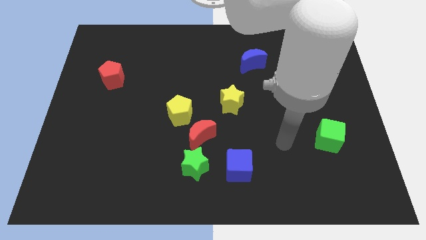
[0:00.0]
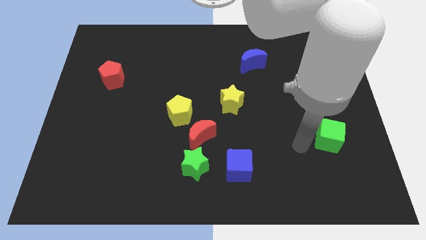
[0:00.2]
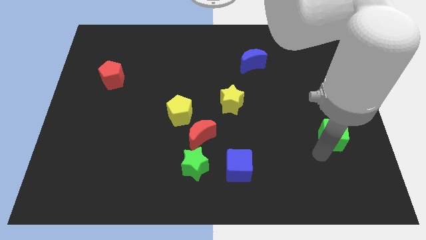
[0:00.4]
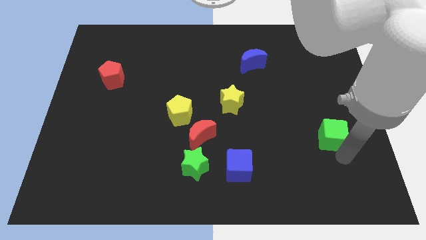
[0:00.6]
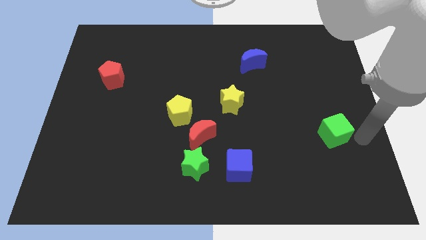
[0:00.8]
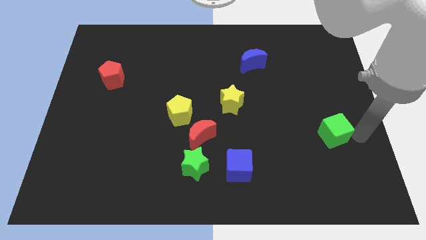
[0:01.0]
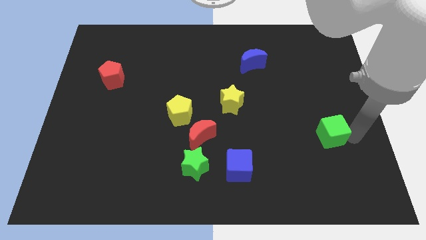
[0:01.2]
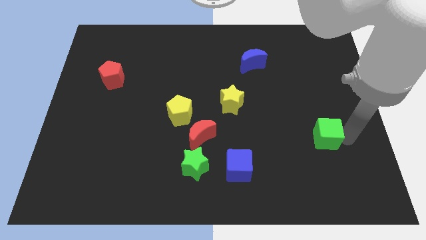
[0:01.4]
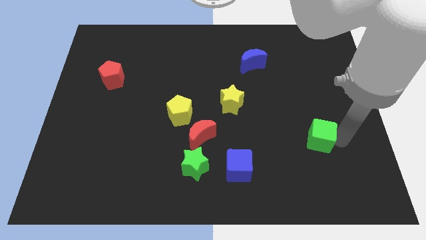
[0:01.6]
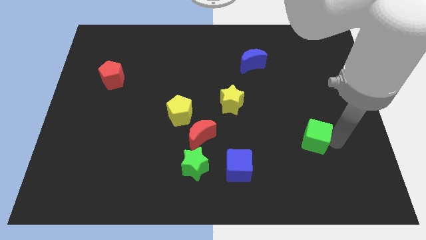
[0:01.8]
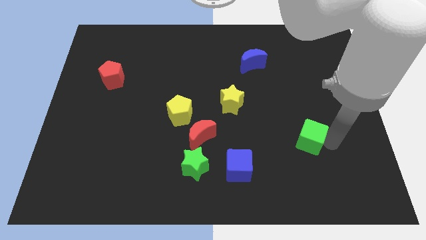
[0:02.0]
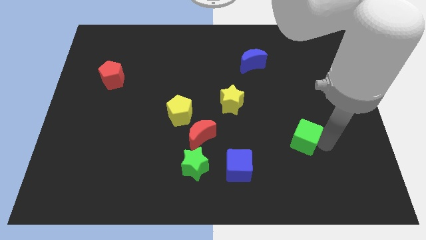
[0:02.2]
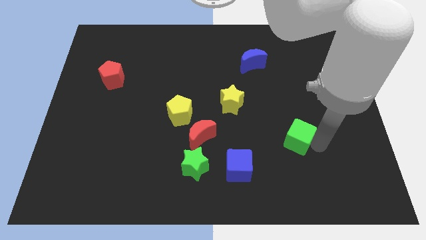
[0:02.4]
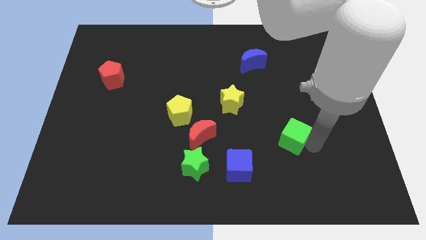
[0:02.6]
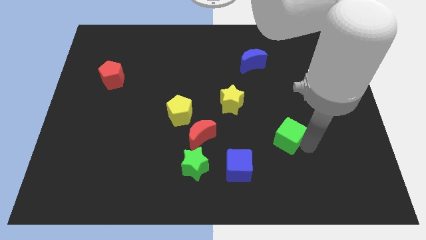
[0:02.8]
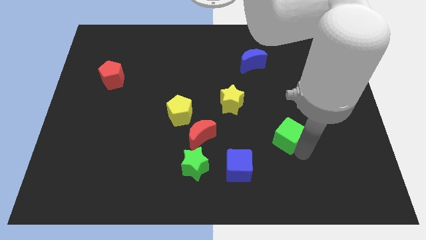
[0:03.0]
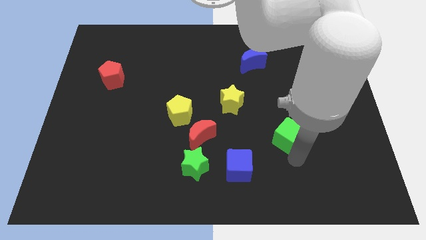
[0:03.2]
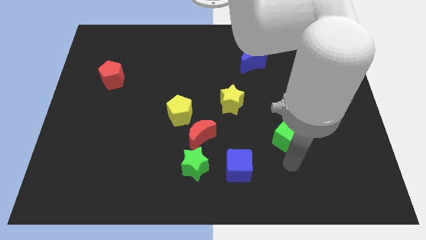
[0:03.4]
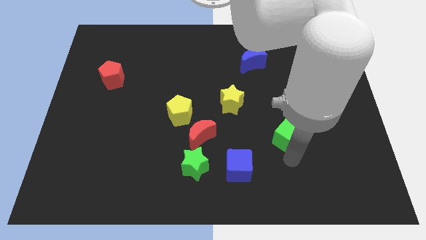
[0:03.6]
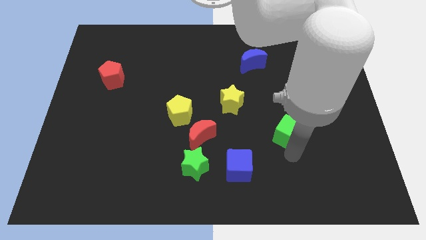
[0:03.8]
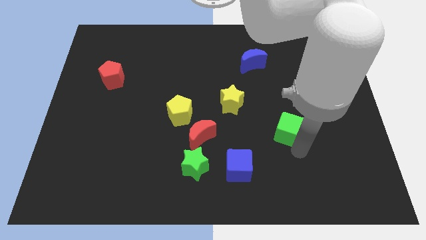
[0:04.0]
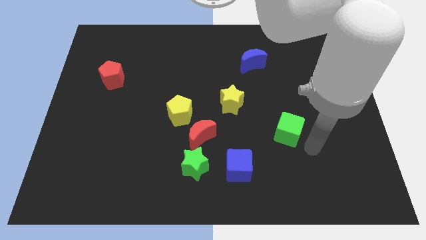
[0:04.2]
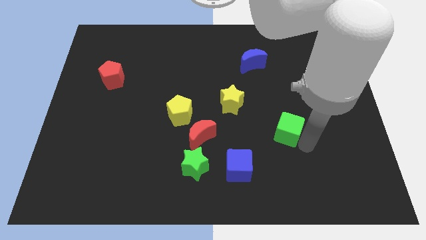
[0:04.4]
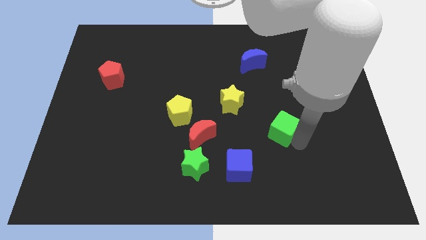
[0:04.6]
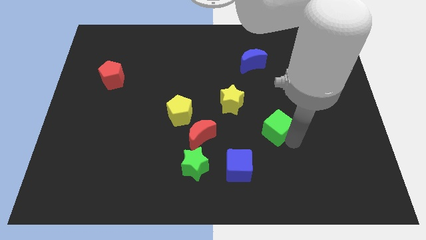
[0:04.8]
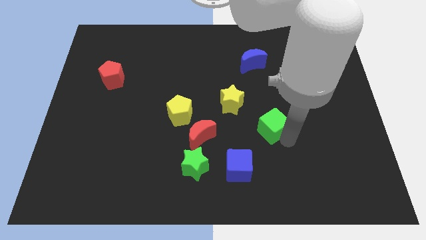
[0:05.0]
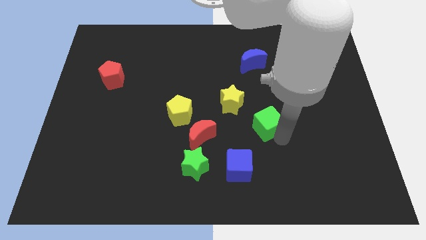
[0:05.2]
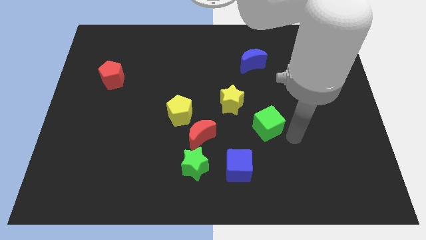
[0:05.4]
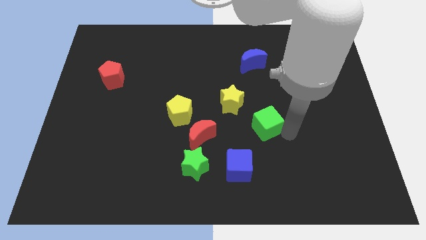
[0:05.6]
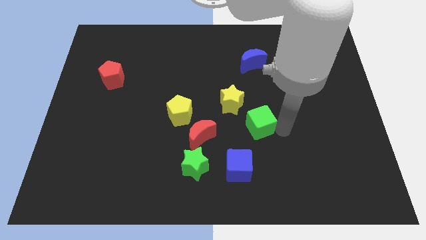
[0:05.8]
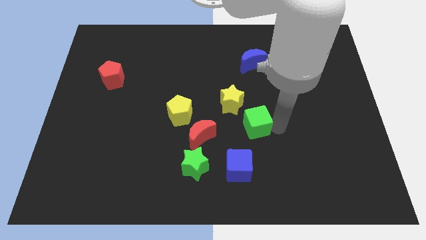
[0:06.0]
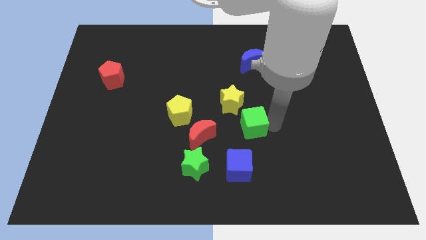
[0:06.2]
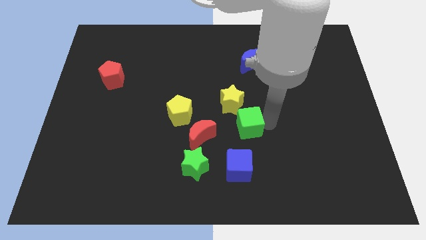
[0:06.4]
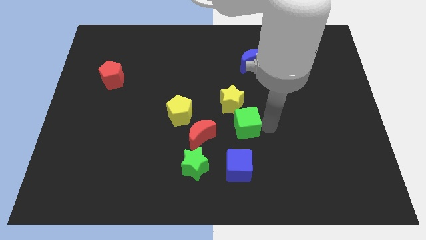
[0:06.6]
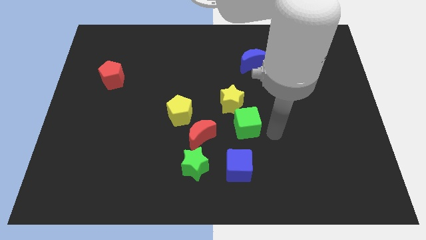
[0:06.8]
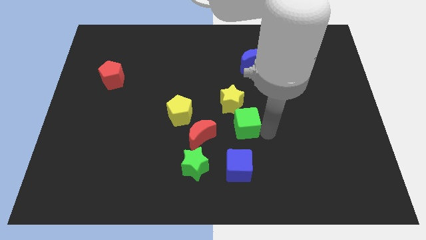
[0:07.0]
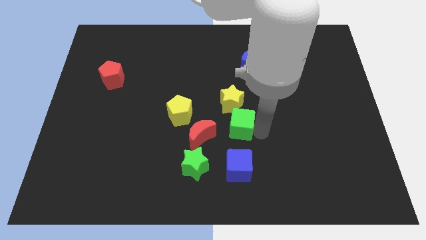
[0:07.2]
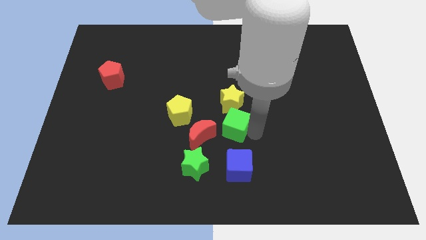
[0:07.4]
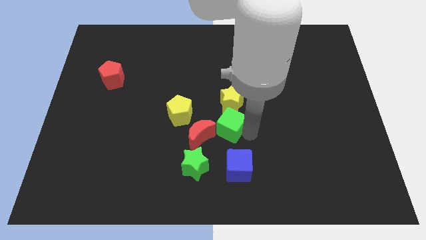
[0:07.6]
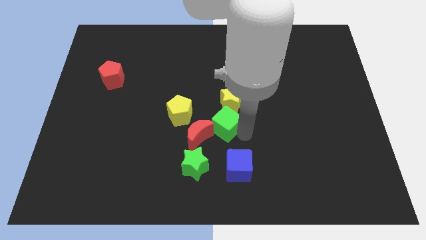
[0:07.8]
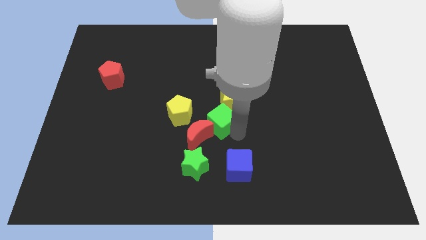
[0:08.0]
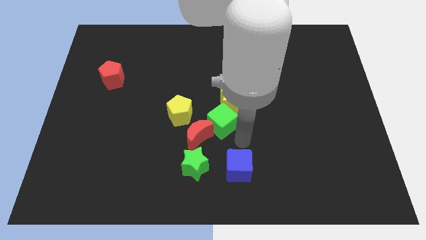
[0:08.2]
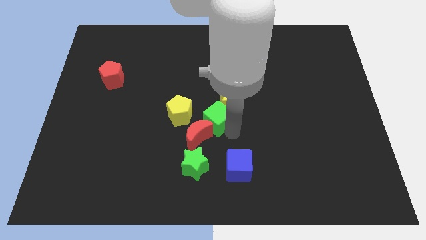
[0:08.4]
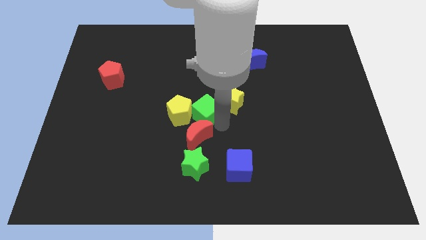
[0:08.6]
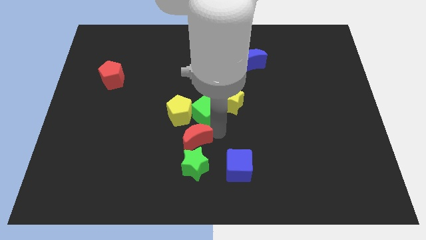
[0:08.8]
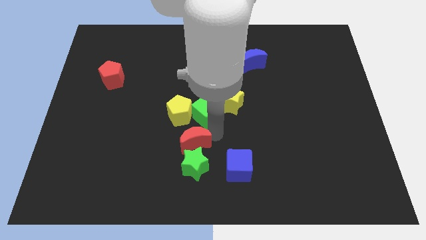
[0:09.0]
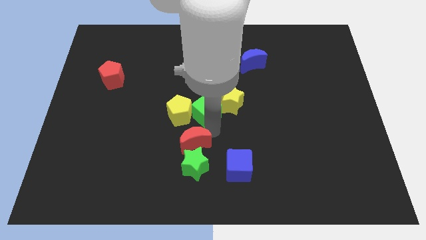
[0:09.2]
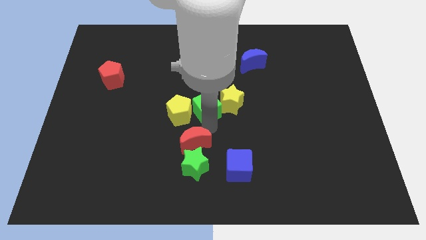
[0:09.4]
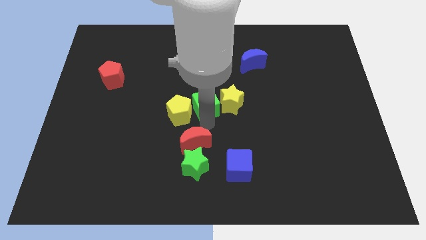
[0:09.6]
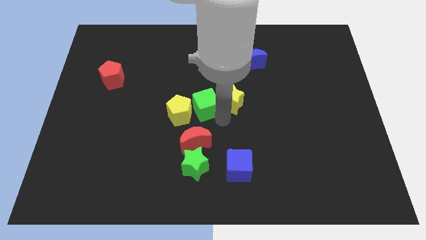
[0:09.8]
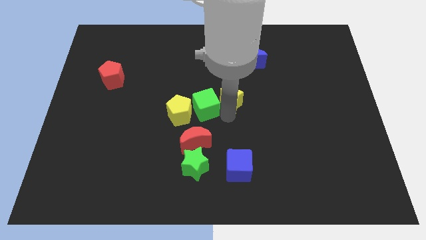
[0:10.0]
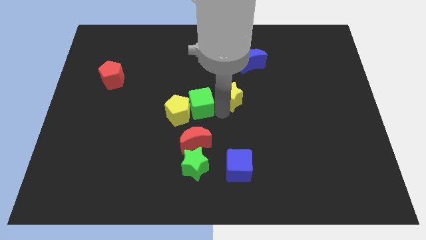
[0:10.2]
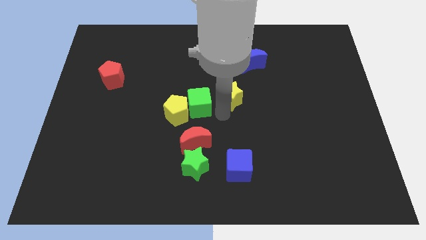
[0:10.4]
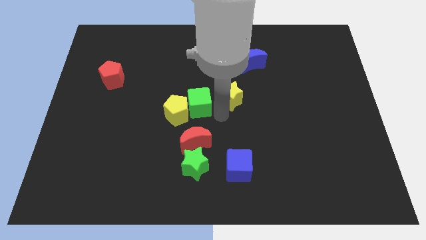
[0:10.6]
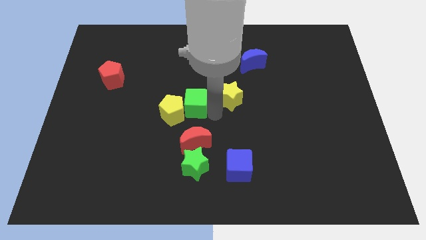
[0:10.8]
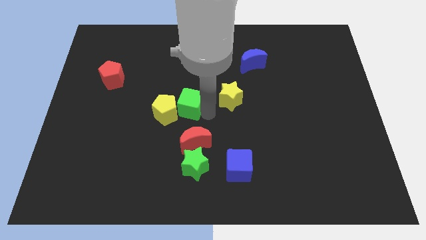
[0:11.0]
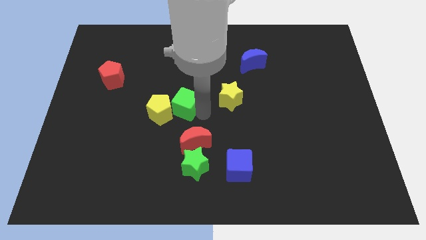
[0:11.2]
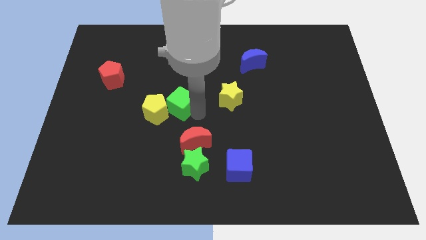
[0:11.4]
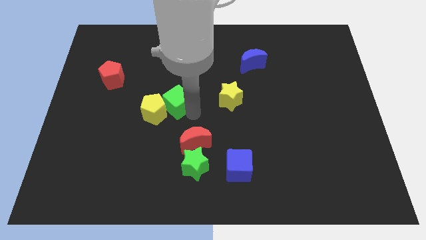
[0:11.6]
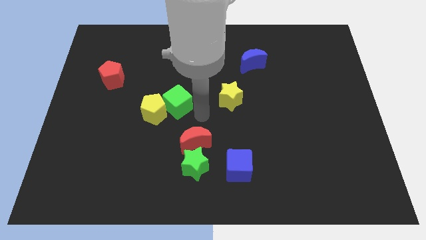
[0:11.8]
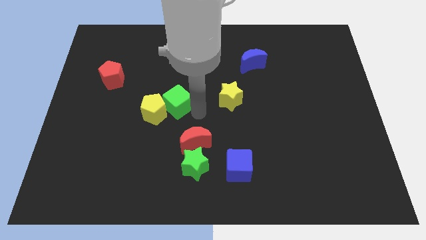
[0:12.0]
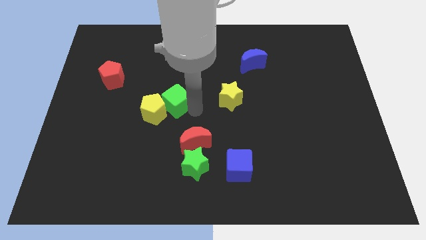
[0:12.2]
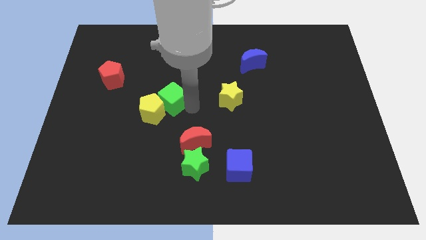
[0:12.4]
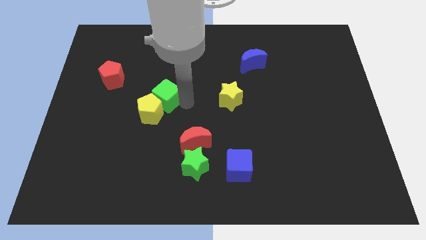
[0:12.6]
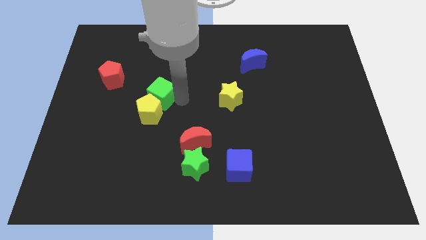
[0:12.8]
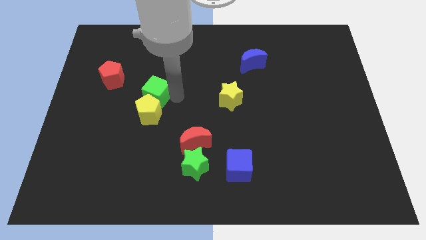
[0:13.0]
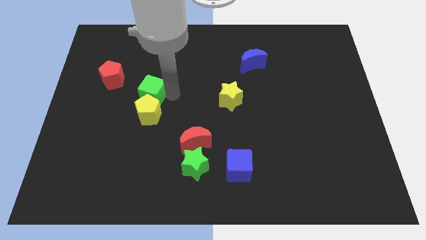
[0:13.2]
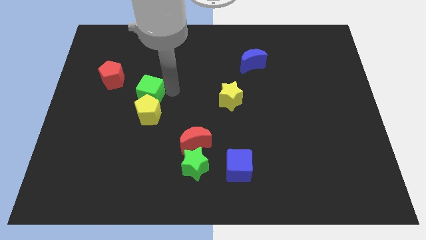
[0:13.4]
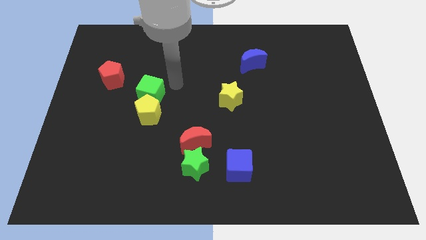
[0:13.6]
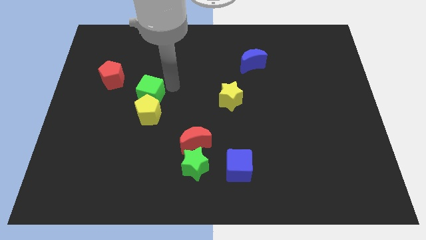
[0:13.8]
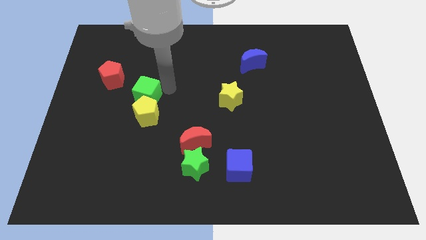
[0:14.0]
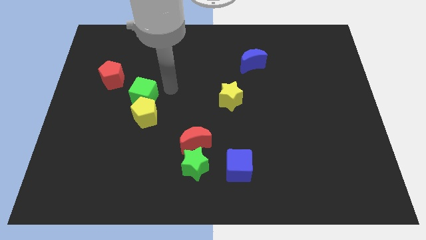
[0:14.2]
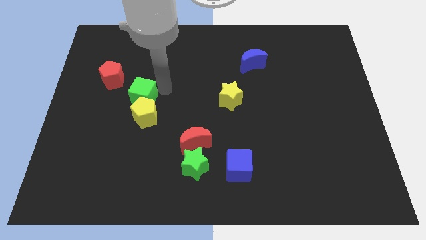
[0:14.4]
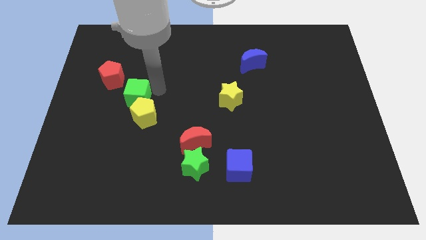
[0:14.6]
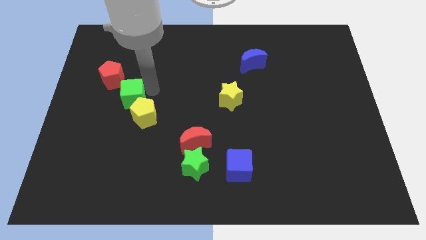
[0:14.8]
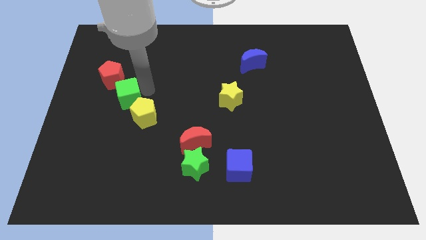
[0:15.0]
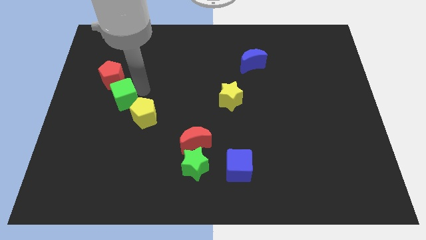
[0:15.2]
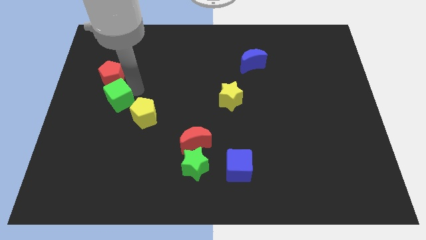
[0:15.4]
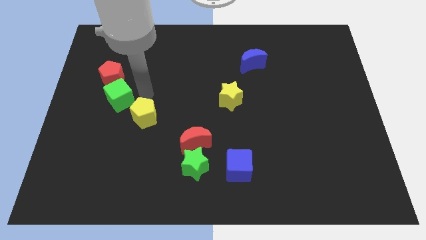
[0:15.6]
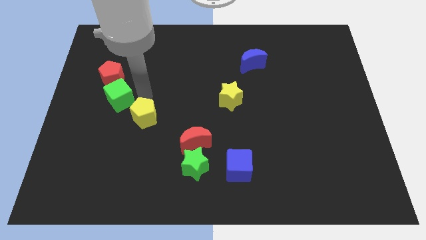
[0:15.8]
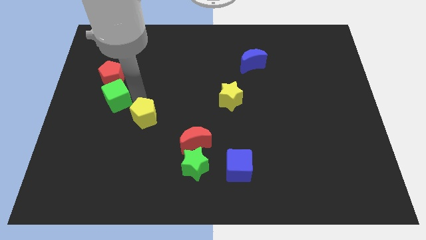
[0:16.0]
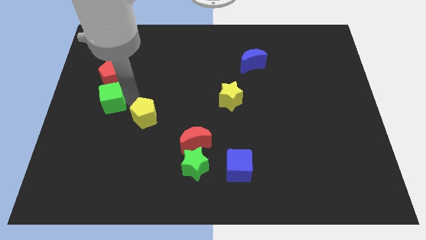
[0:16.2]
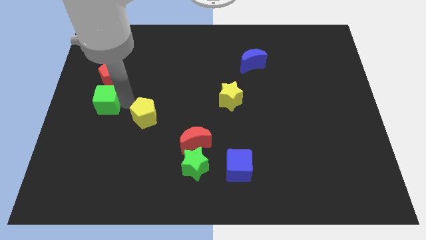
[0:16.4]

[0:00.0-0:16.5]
move the green cube to the left side of the board
